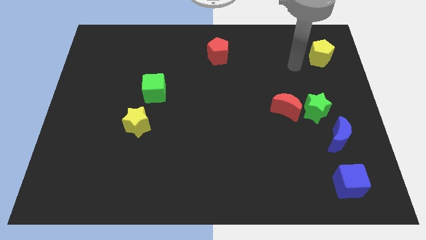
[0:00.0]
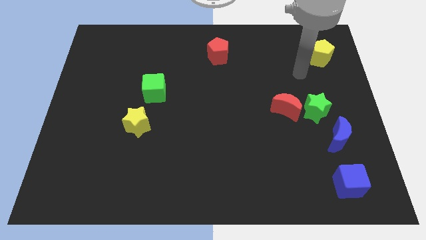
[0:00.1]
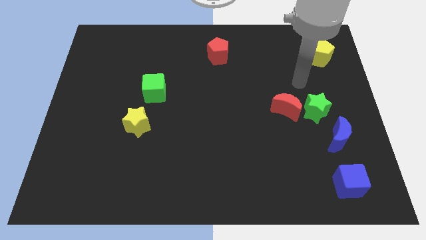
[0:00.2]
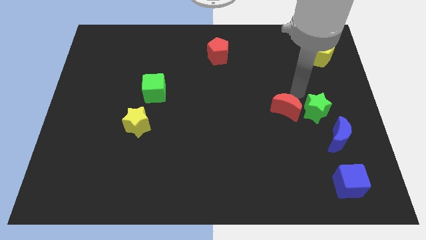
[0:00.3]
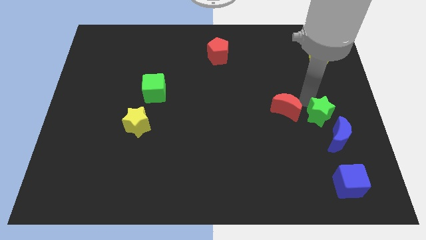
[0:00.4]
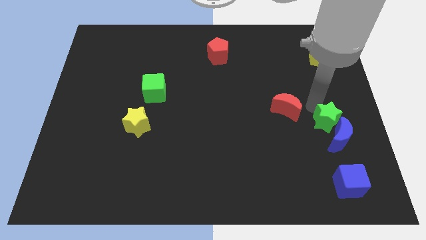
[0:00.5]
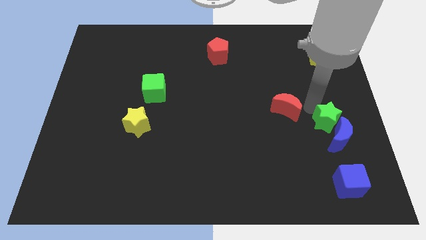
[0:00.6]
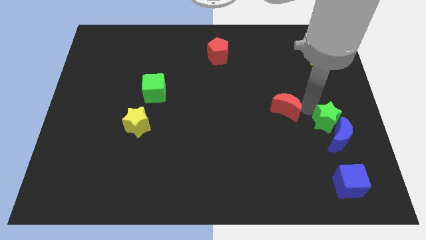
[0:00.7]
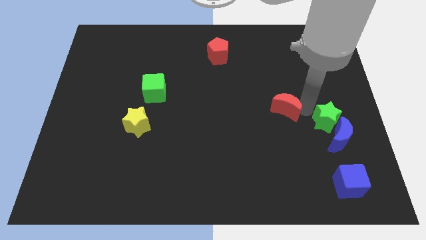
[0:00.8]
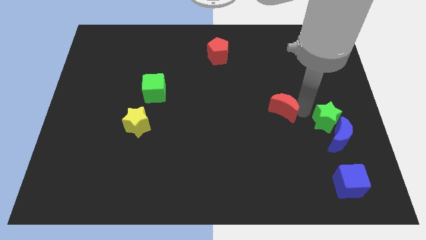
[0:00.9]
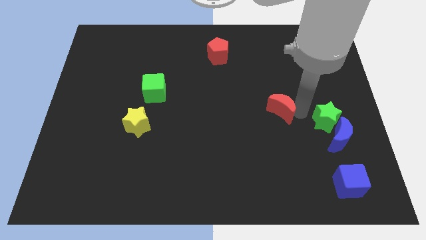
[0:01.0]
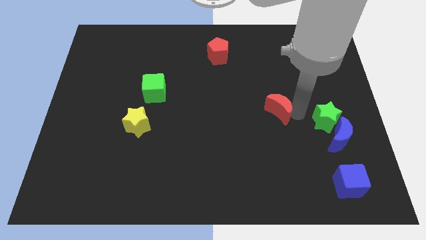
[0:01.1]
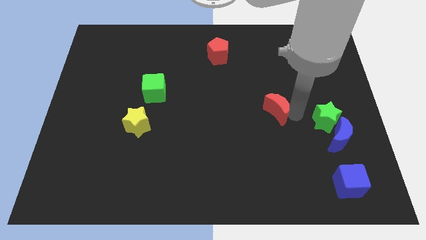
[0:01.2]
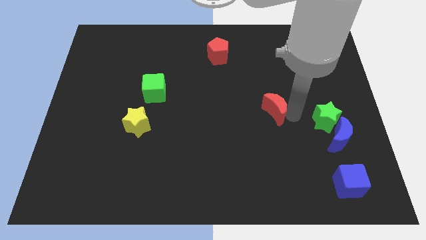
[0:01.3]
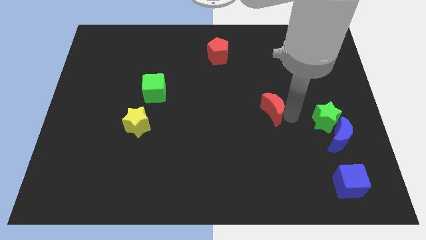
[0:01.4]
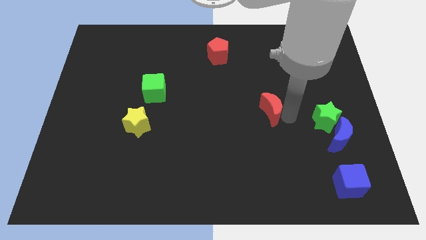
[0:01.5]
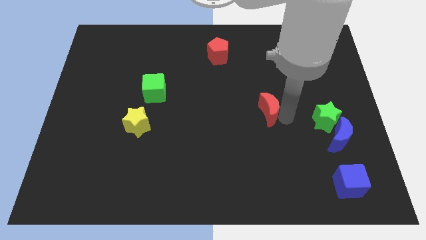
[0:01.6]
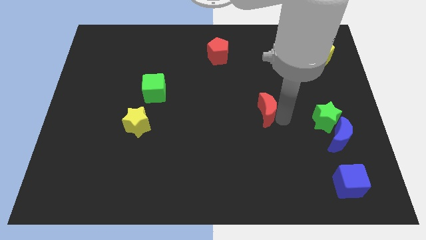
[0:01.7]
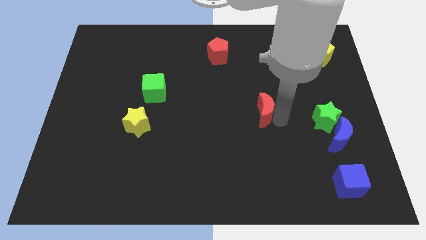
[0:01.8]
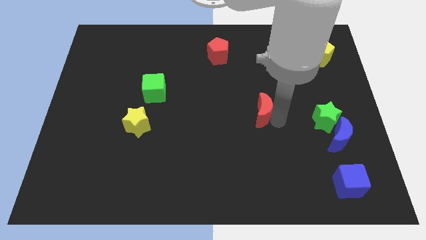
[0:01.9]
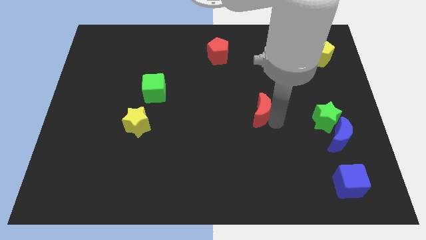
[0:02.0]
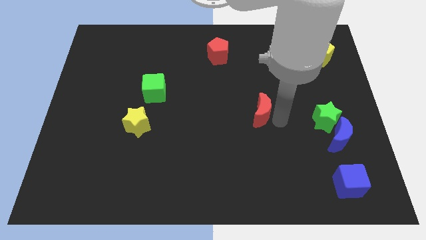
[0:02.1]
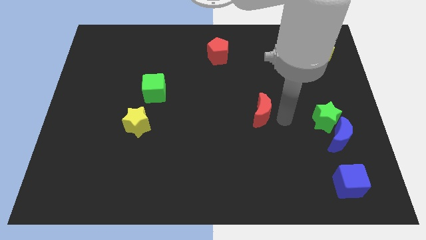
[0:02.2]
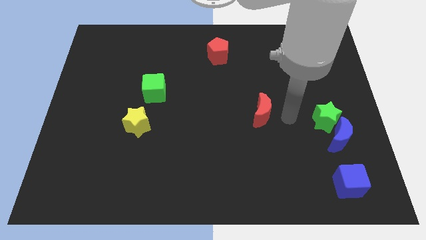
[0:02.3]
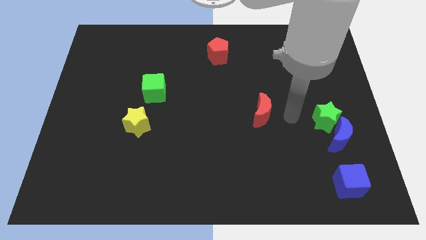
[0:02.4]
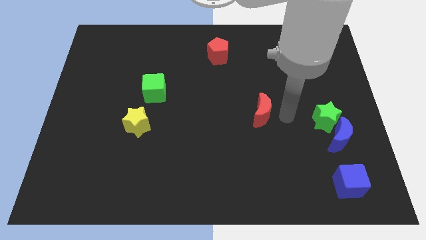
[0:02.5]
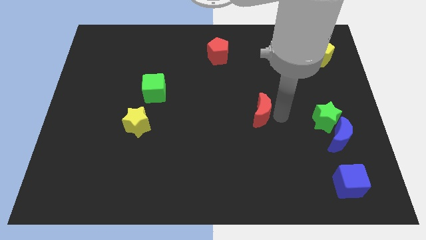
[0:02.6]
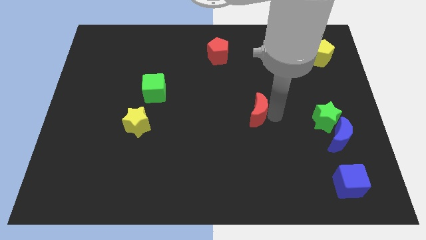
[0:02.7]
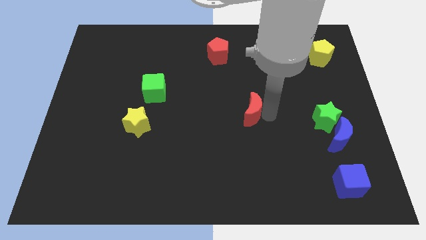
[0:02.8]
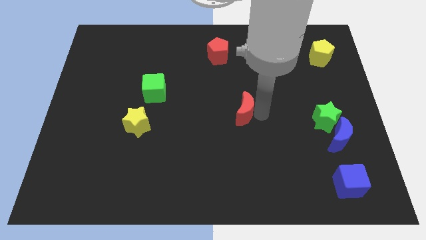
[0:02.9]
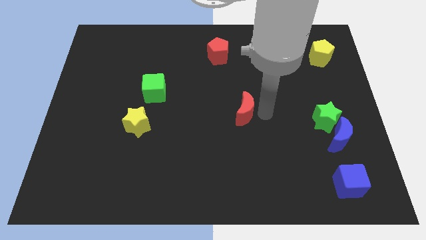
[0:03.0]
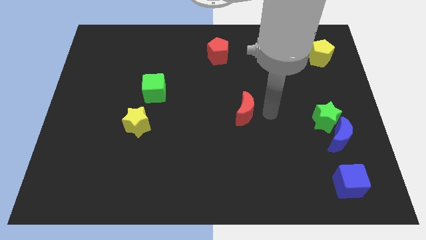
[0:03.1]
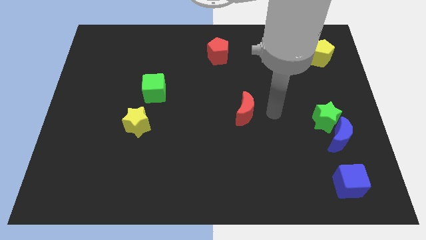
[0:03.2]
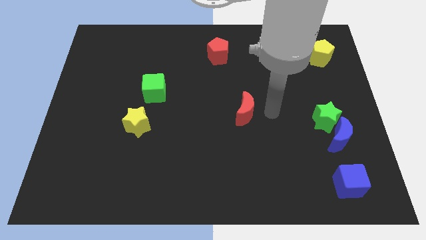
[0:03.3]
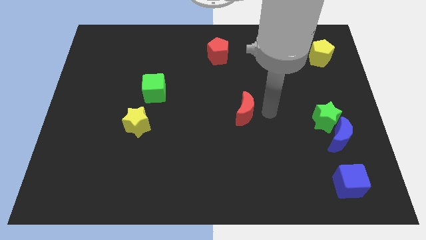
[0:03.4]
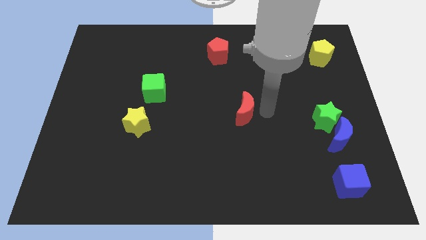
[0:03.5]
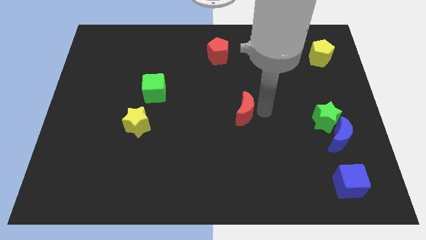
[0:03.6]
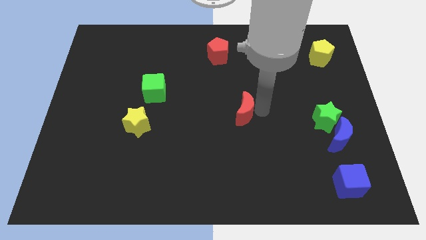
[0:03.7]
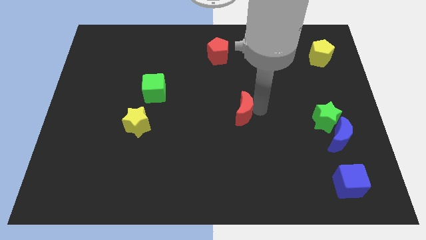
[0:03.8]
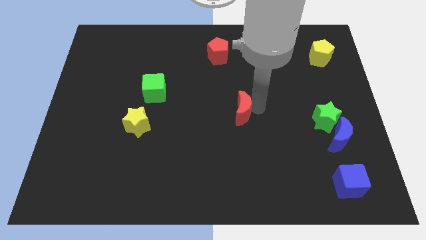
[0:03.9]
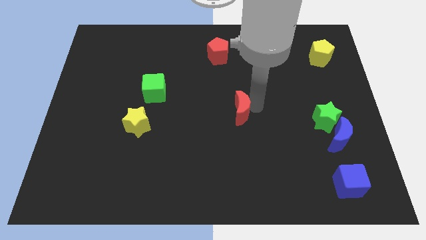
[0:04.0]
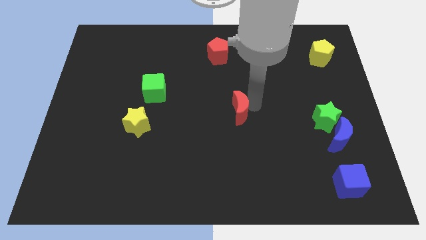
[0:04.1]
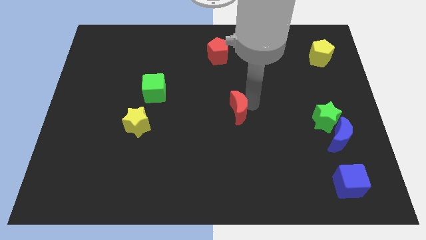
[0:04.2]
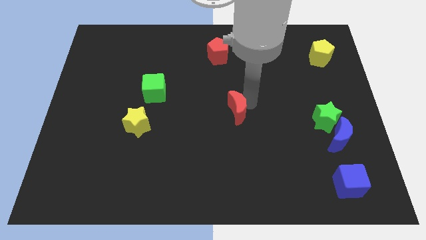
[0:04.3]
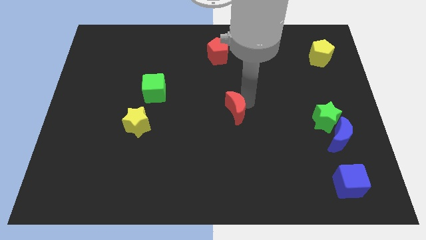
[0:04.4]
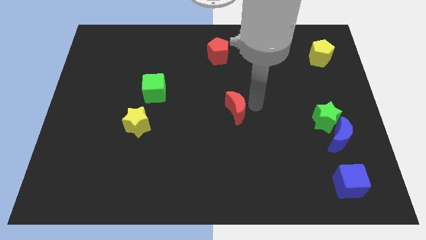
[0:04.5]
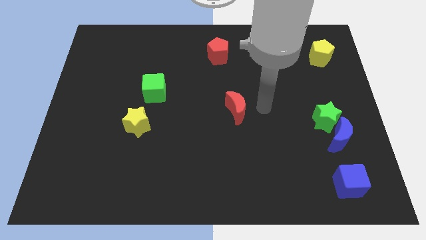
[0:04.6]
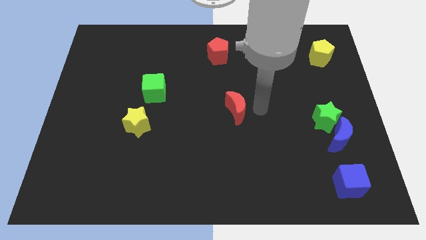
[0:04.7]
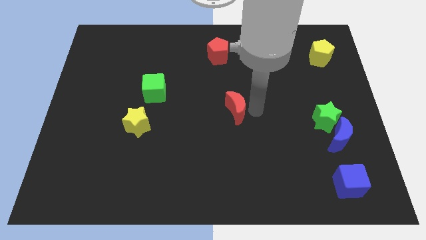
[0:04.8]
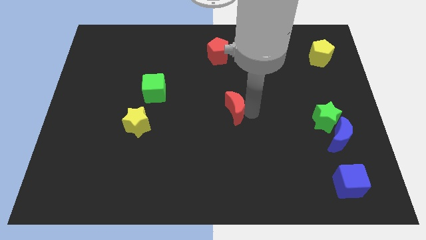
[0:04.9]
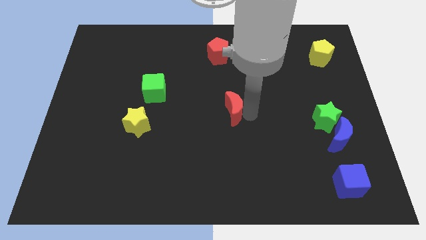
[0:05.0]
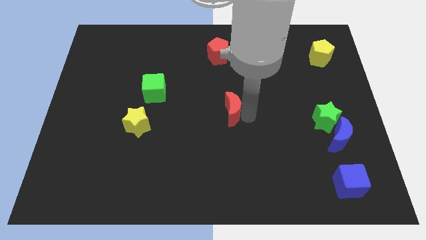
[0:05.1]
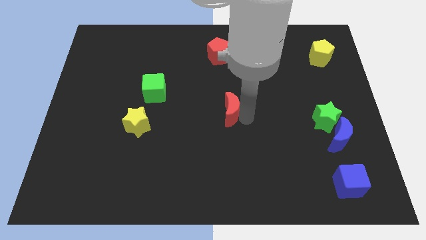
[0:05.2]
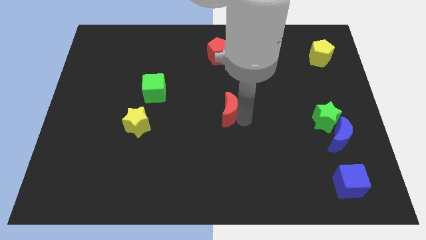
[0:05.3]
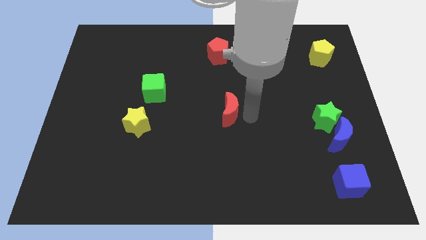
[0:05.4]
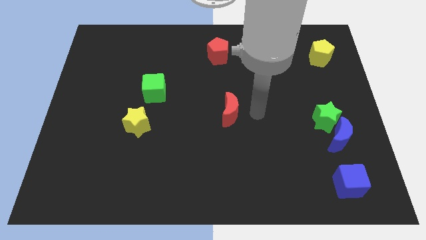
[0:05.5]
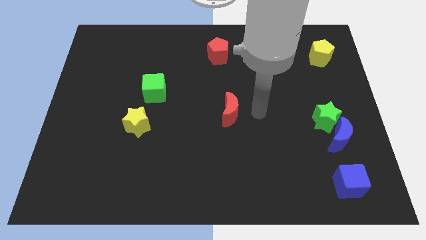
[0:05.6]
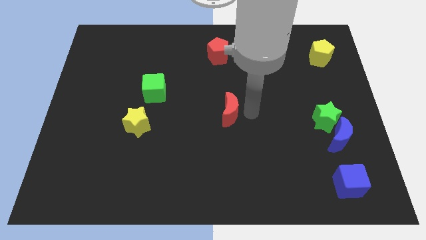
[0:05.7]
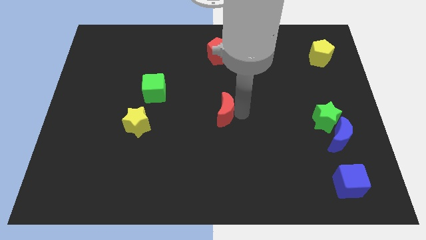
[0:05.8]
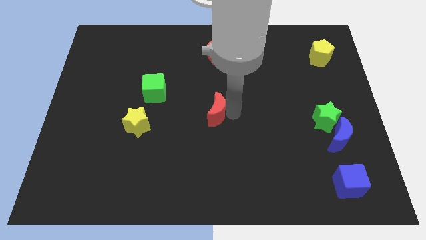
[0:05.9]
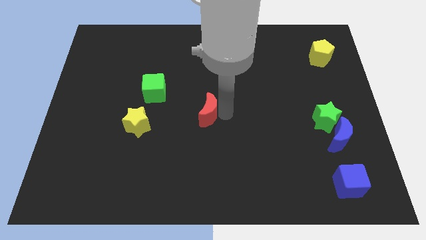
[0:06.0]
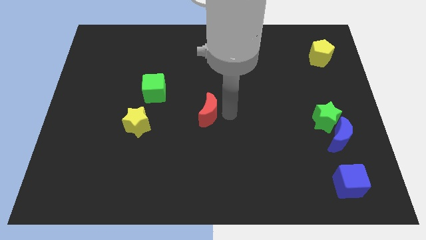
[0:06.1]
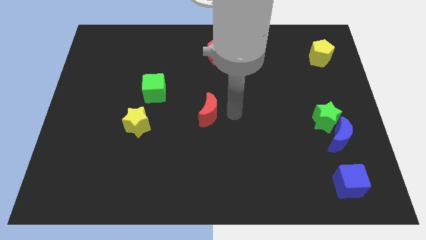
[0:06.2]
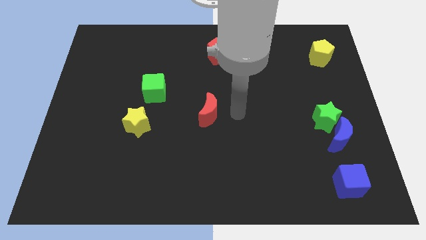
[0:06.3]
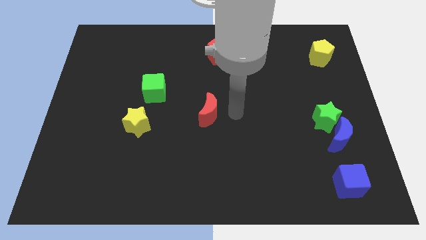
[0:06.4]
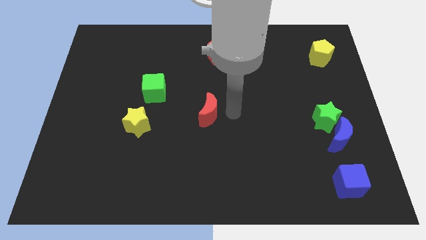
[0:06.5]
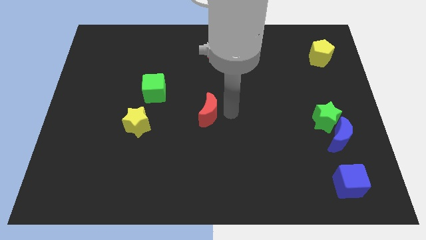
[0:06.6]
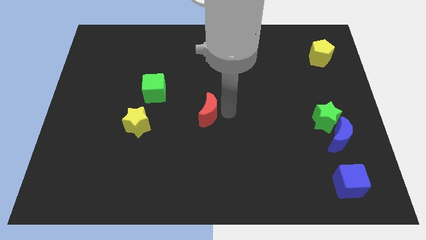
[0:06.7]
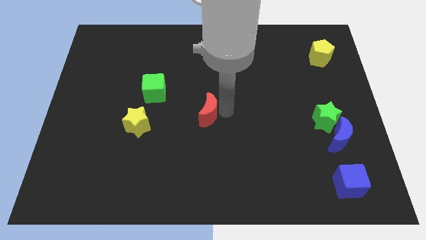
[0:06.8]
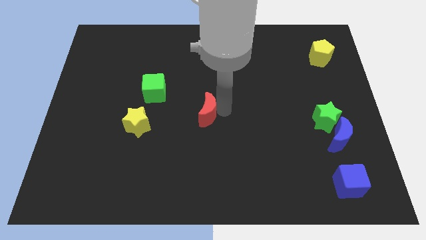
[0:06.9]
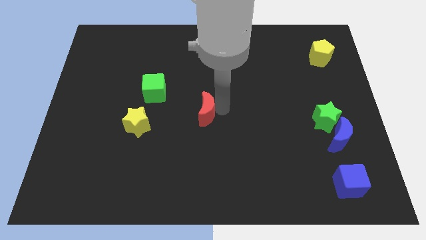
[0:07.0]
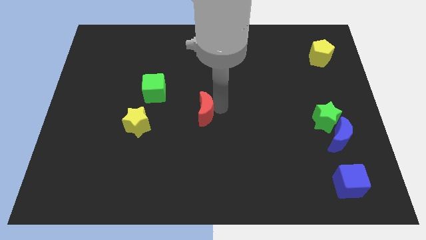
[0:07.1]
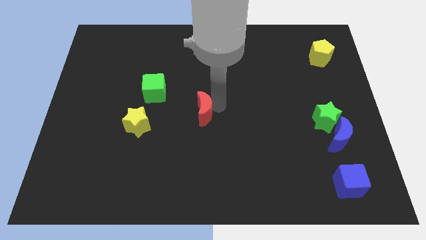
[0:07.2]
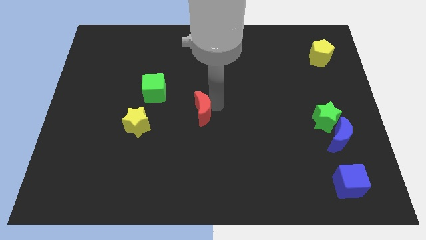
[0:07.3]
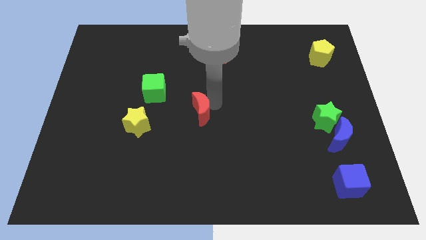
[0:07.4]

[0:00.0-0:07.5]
move the red moon to the left

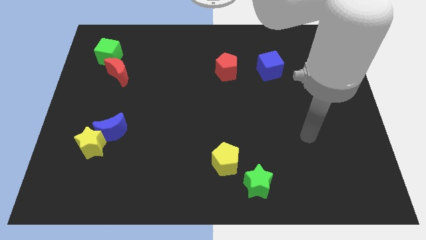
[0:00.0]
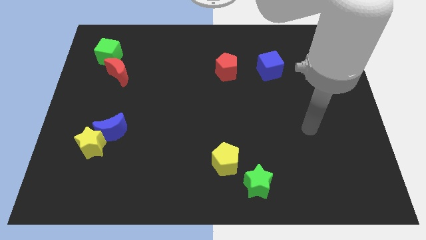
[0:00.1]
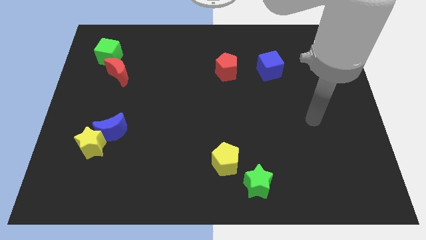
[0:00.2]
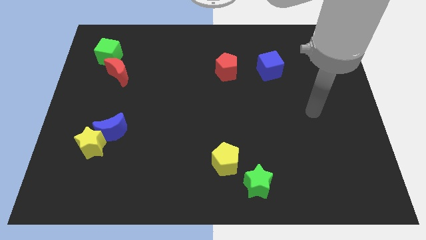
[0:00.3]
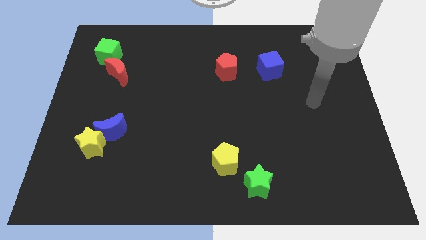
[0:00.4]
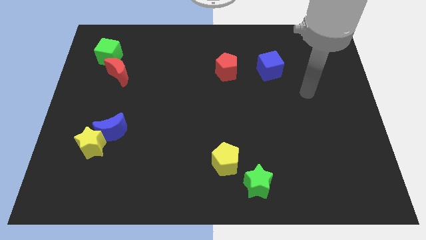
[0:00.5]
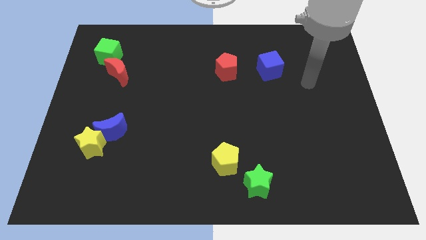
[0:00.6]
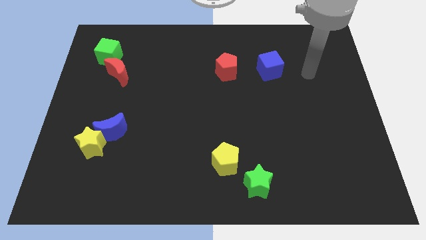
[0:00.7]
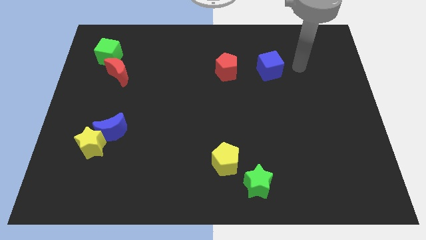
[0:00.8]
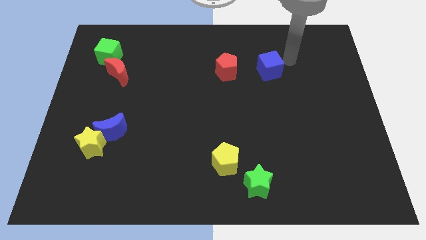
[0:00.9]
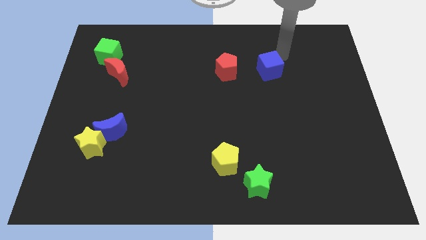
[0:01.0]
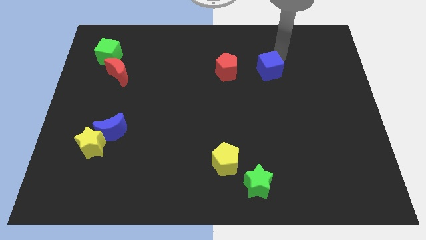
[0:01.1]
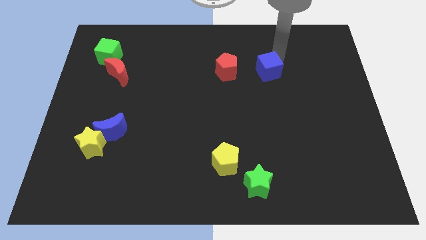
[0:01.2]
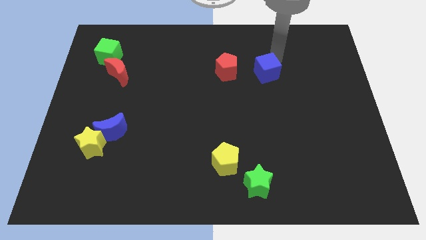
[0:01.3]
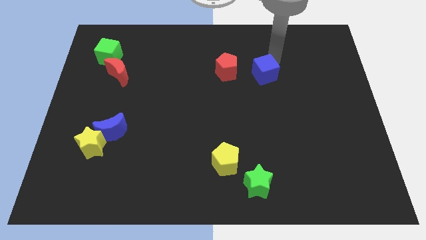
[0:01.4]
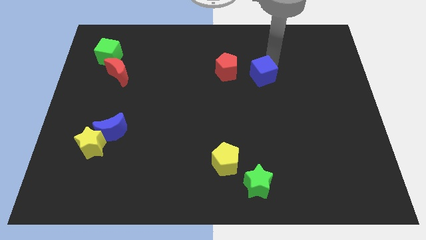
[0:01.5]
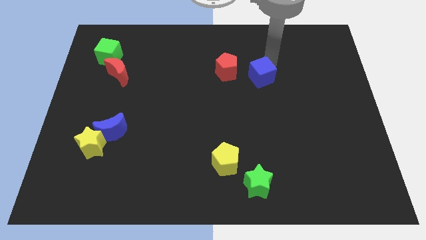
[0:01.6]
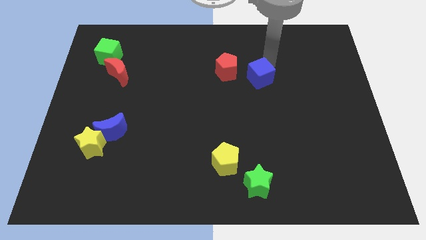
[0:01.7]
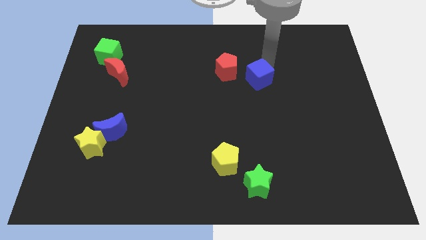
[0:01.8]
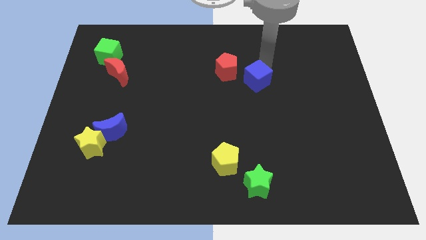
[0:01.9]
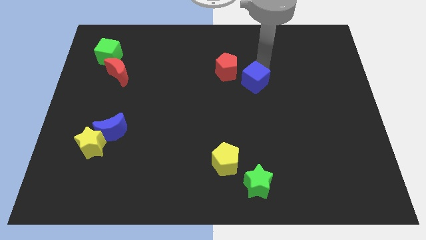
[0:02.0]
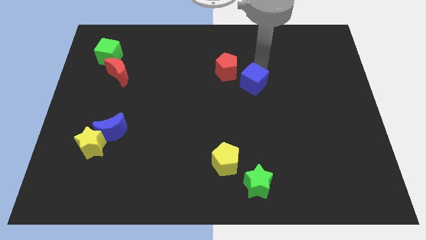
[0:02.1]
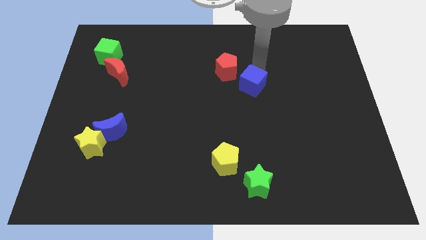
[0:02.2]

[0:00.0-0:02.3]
slide the blue cube downwards and then to the left a bit
